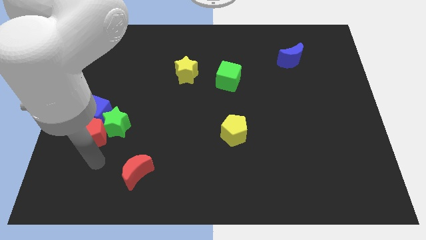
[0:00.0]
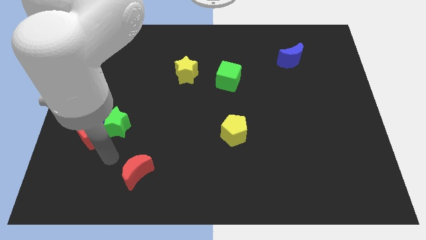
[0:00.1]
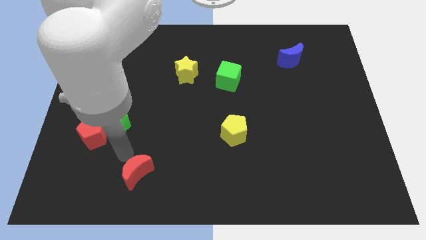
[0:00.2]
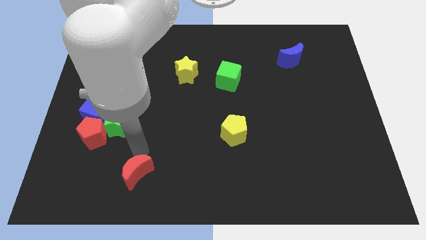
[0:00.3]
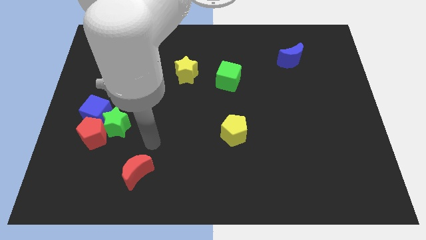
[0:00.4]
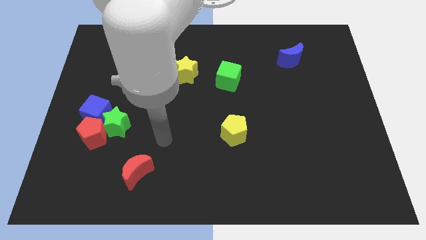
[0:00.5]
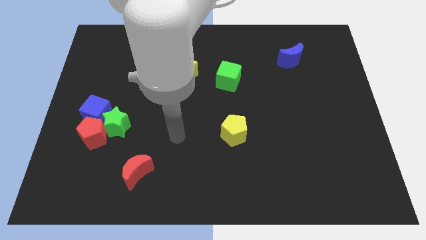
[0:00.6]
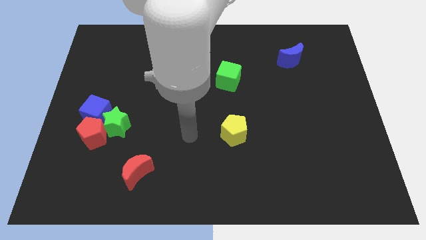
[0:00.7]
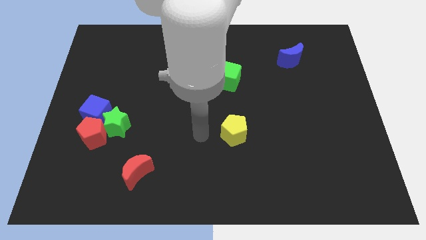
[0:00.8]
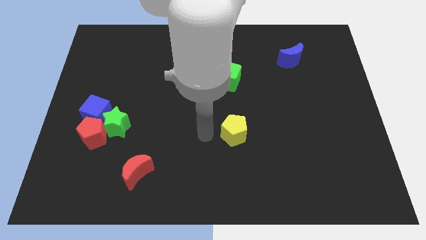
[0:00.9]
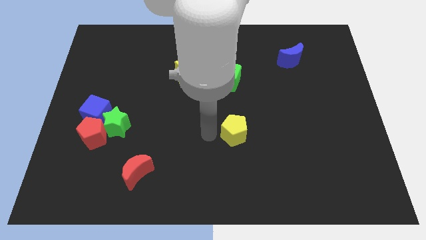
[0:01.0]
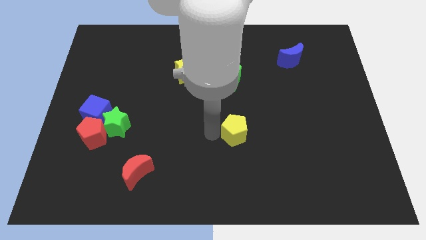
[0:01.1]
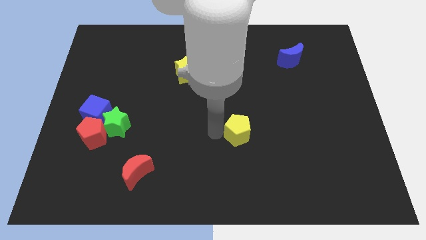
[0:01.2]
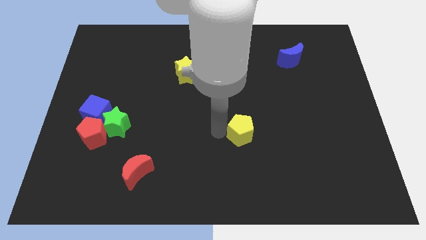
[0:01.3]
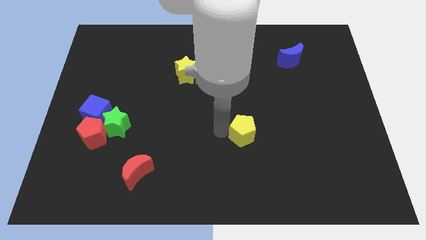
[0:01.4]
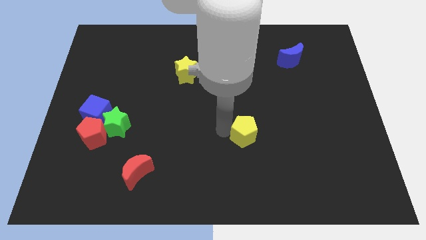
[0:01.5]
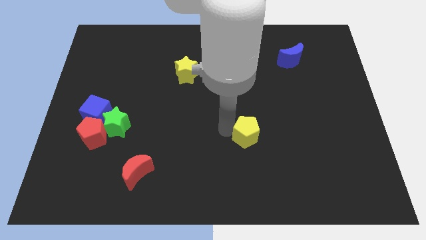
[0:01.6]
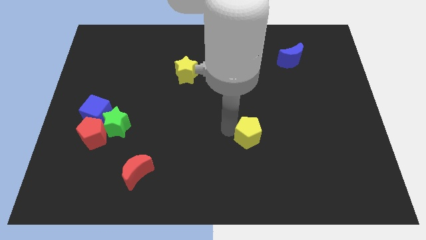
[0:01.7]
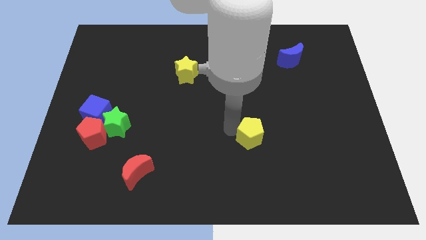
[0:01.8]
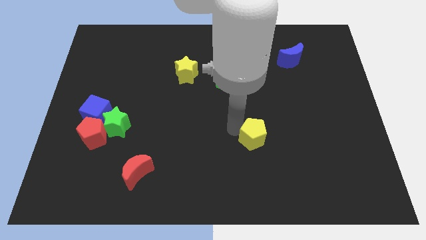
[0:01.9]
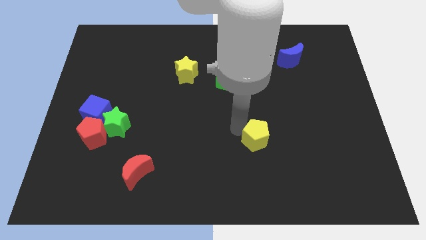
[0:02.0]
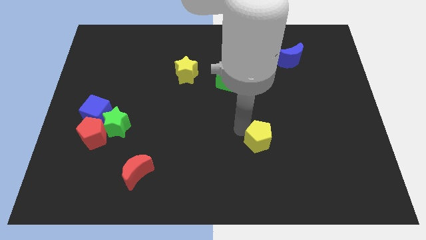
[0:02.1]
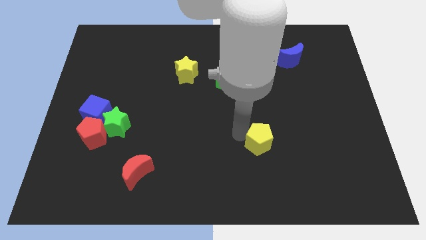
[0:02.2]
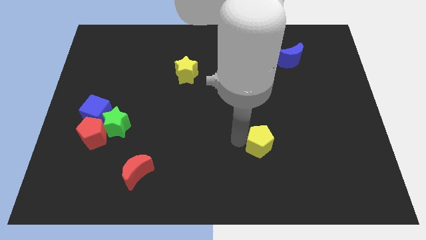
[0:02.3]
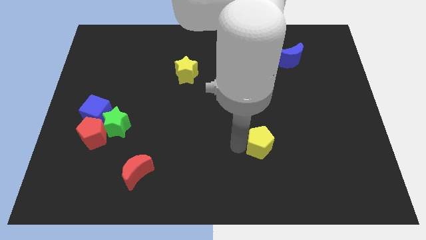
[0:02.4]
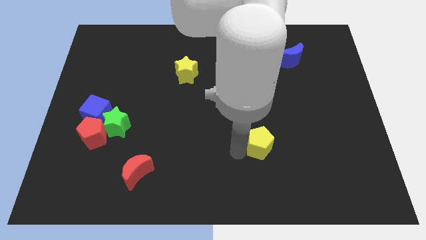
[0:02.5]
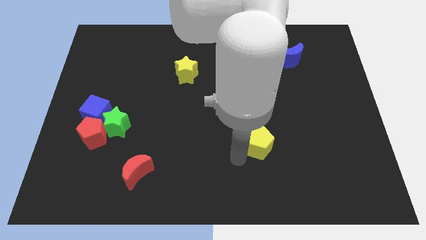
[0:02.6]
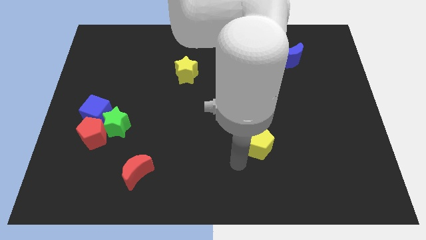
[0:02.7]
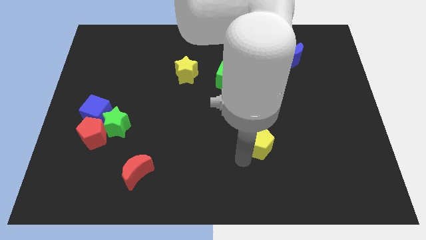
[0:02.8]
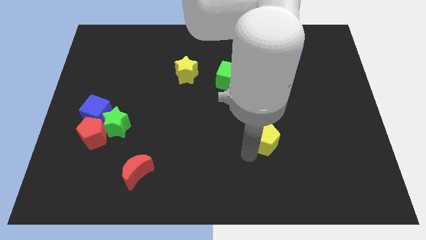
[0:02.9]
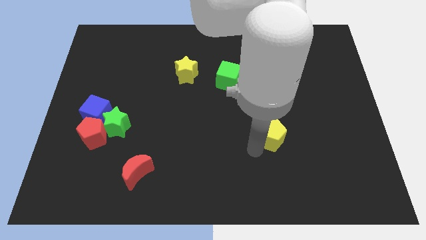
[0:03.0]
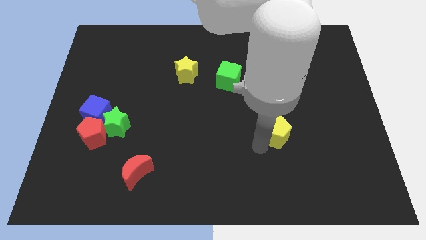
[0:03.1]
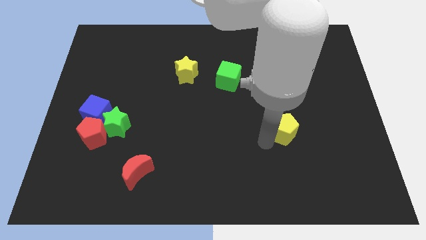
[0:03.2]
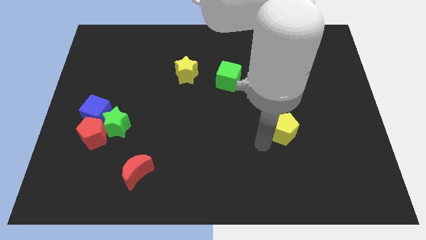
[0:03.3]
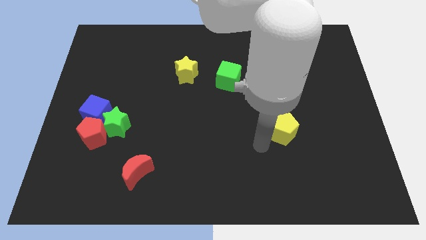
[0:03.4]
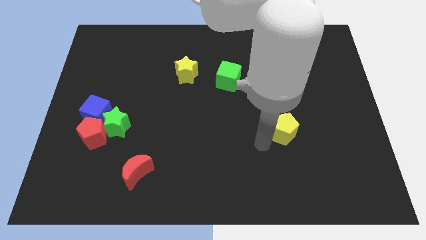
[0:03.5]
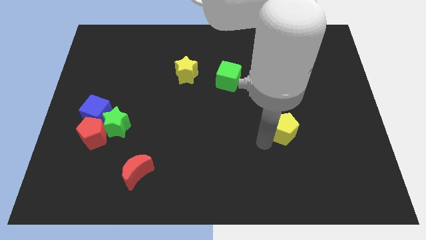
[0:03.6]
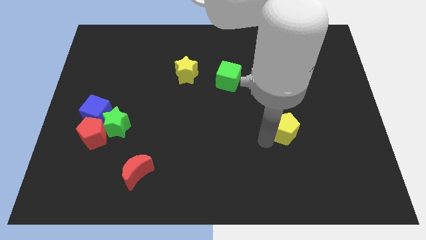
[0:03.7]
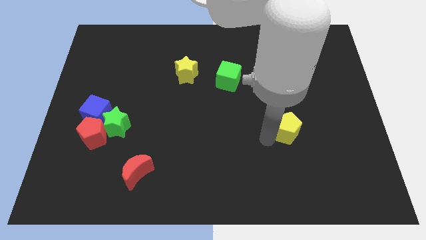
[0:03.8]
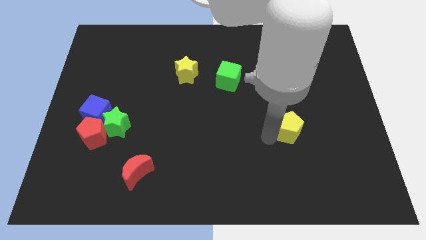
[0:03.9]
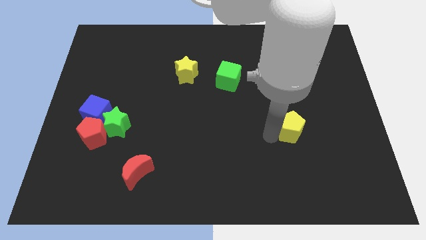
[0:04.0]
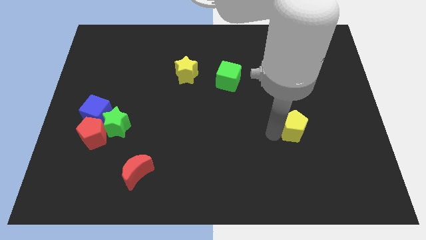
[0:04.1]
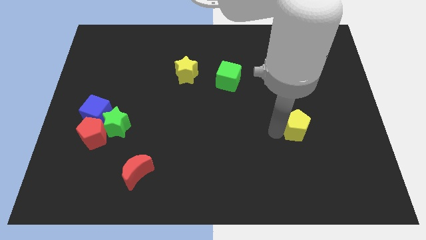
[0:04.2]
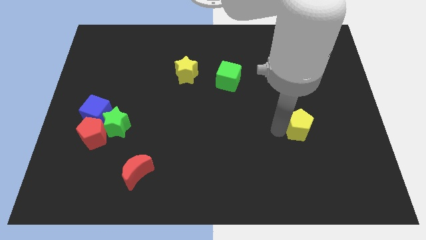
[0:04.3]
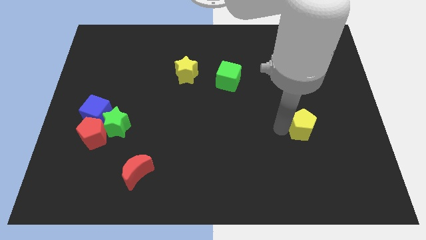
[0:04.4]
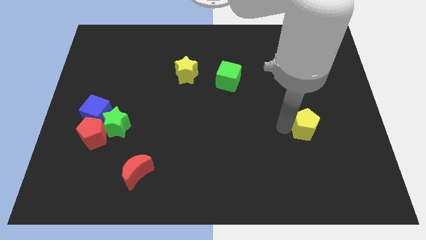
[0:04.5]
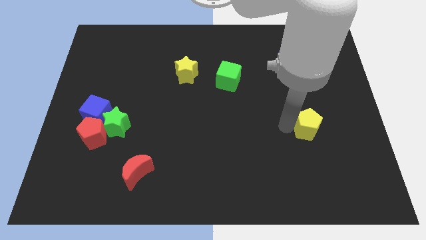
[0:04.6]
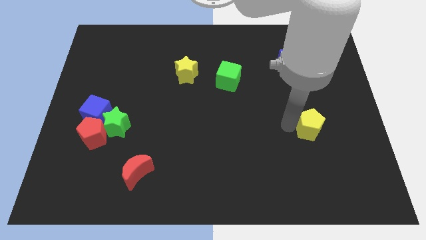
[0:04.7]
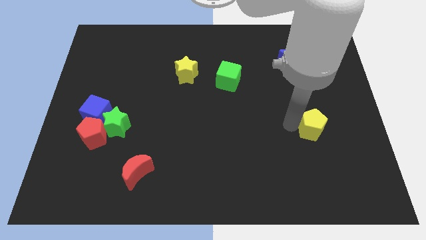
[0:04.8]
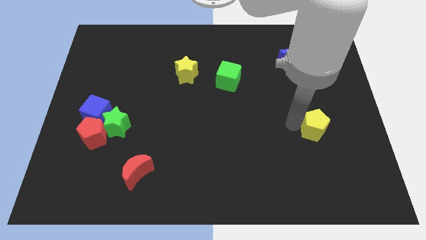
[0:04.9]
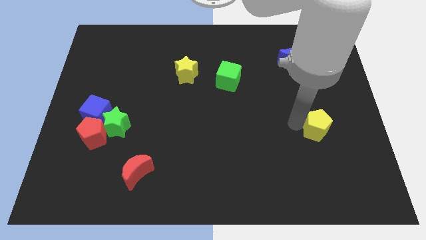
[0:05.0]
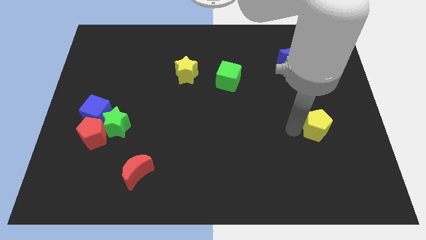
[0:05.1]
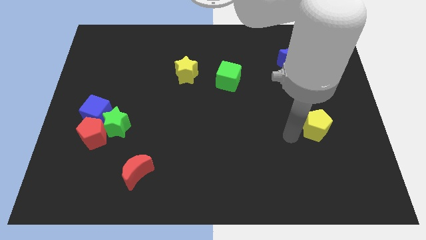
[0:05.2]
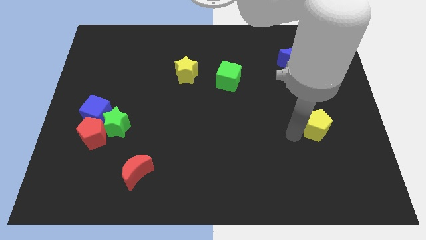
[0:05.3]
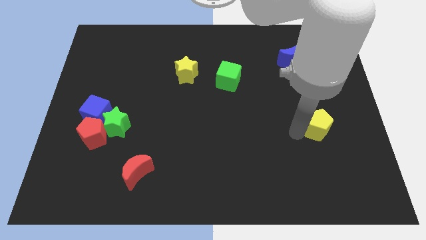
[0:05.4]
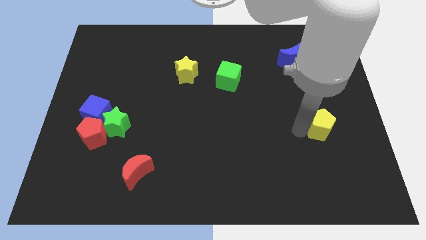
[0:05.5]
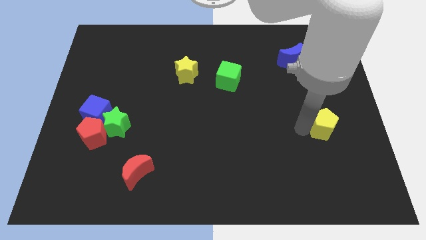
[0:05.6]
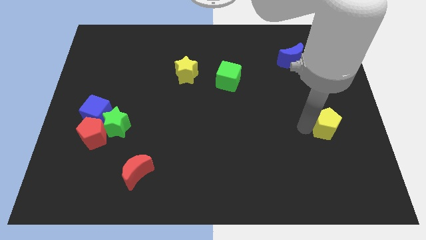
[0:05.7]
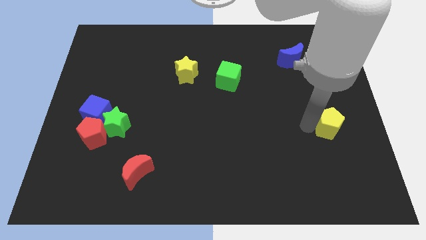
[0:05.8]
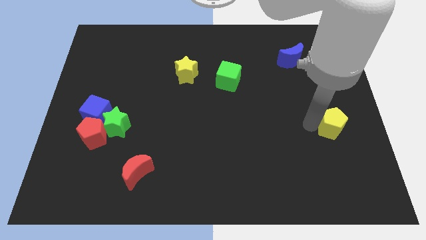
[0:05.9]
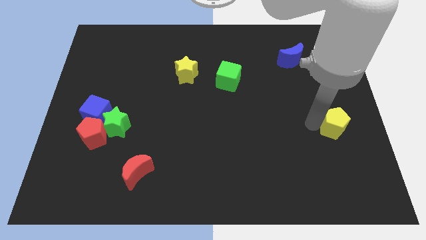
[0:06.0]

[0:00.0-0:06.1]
put the yellow pentagon to the right side of the board
